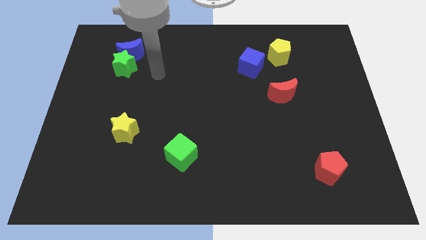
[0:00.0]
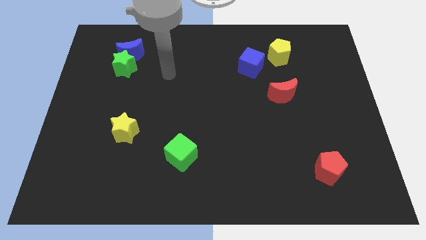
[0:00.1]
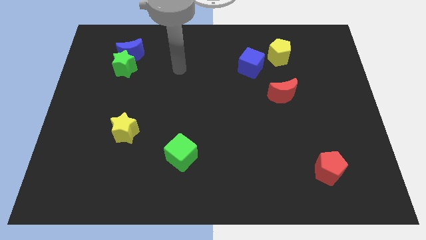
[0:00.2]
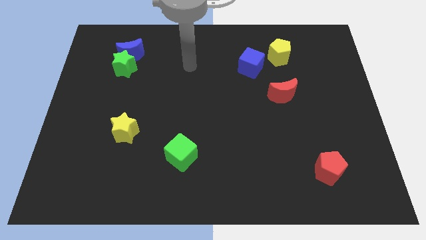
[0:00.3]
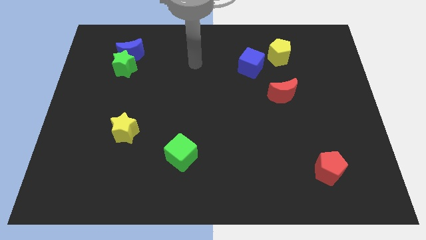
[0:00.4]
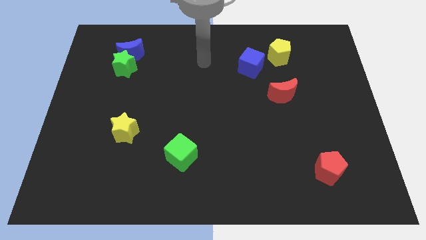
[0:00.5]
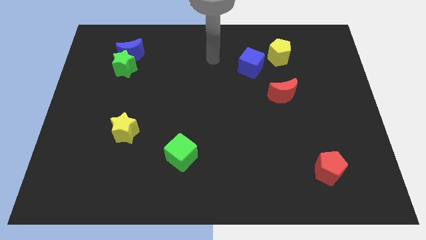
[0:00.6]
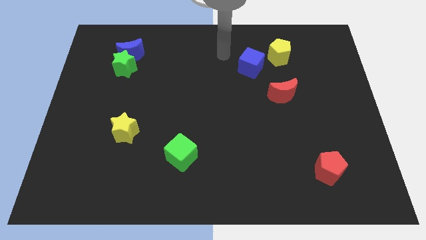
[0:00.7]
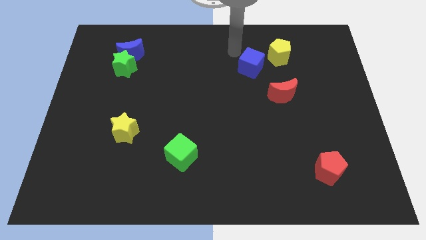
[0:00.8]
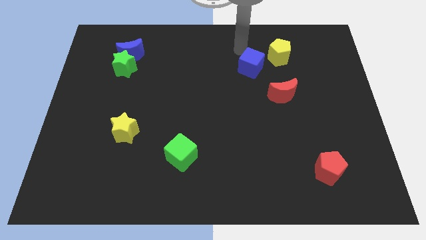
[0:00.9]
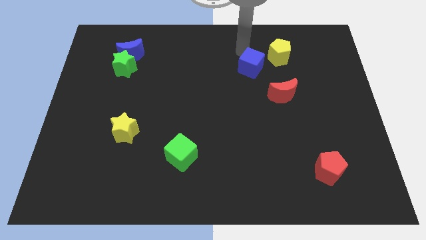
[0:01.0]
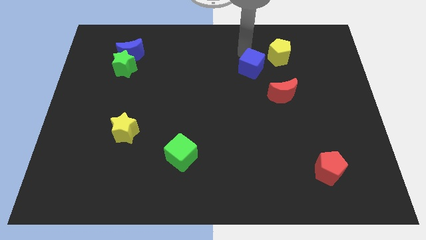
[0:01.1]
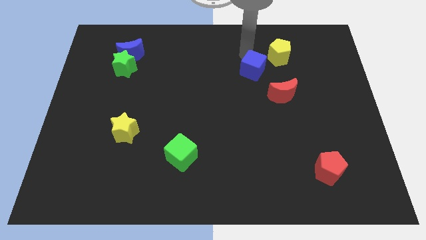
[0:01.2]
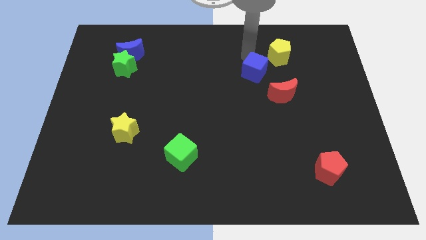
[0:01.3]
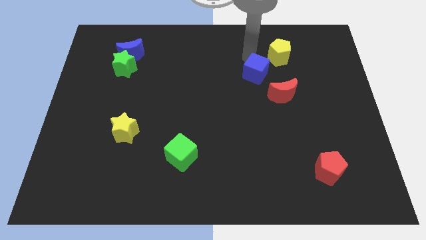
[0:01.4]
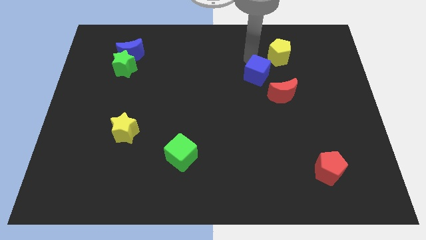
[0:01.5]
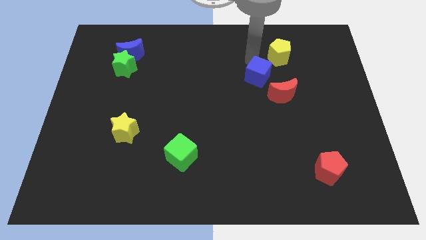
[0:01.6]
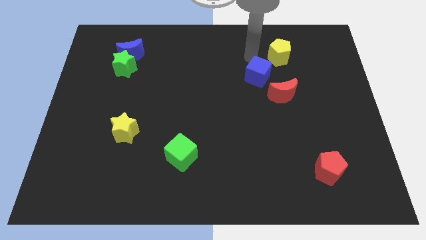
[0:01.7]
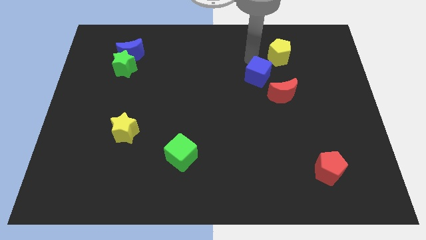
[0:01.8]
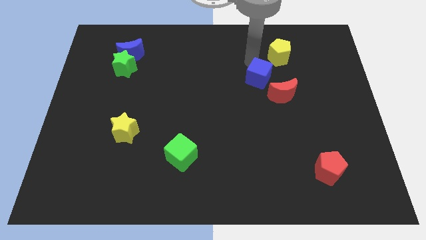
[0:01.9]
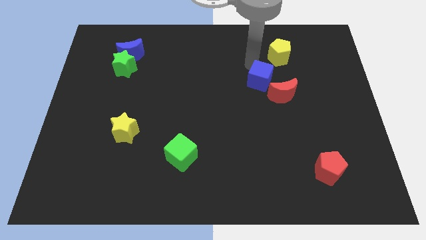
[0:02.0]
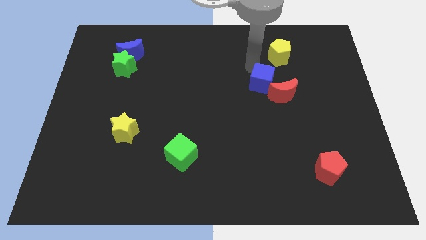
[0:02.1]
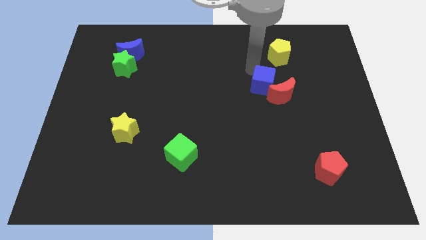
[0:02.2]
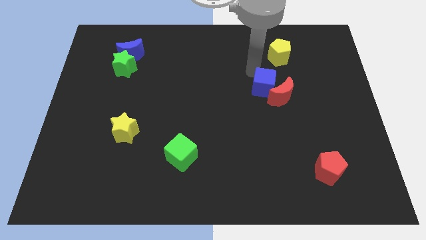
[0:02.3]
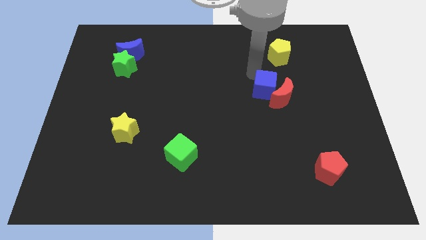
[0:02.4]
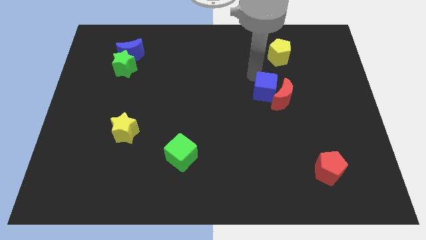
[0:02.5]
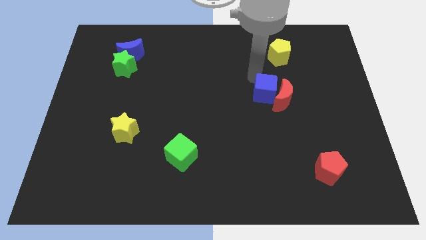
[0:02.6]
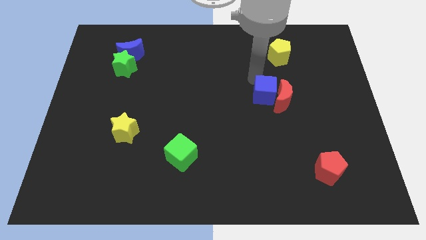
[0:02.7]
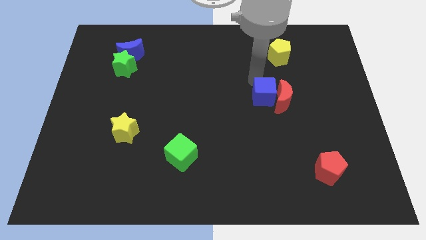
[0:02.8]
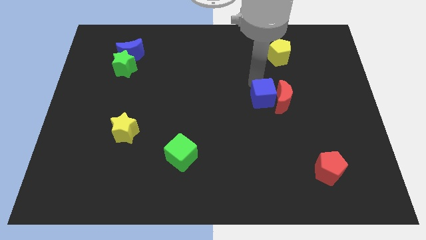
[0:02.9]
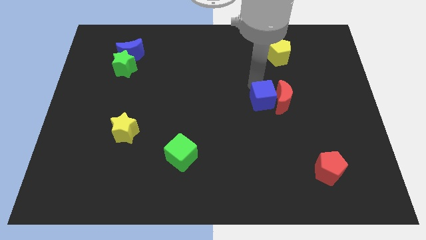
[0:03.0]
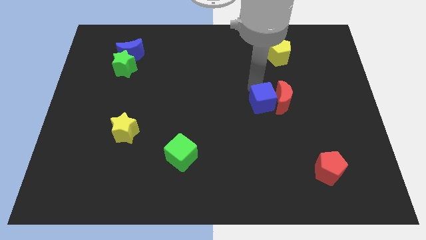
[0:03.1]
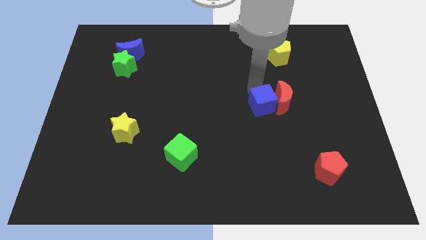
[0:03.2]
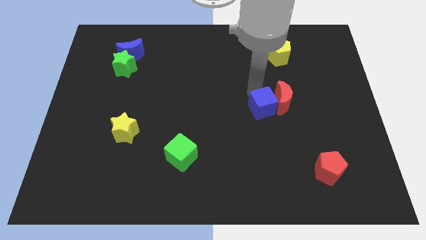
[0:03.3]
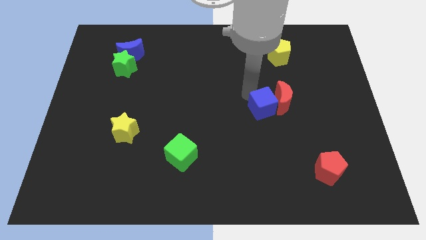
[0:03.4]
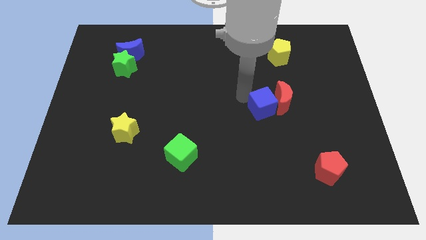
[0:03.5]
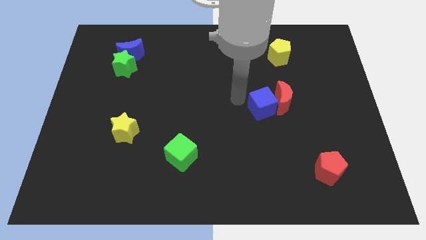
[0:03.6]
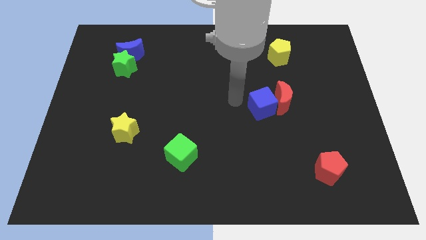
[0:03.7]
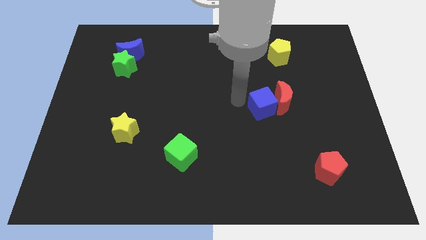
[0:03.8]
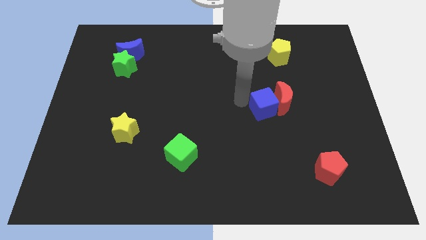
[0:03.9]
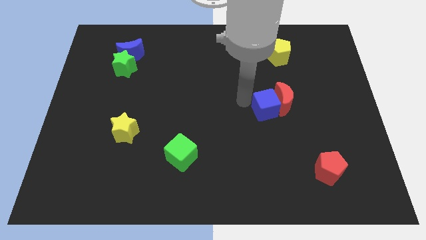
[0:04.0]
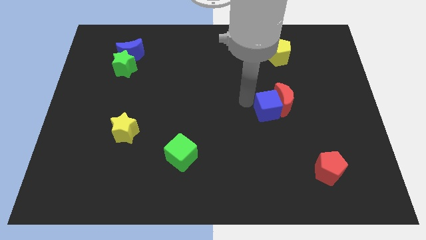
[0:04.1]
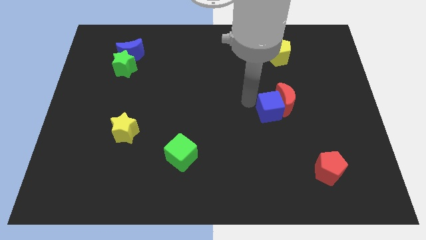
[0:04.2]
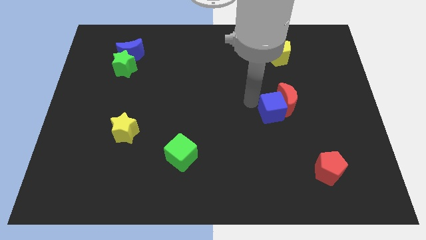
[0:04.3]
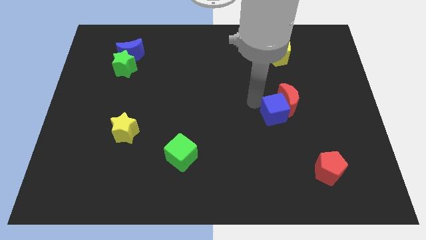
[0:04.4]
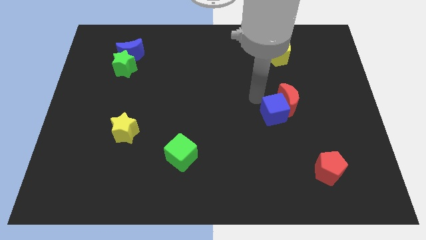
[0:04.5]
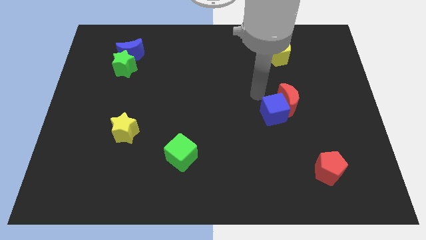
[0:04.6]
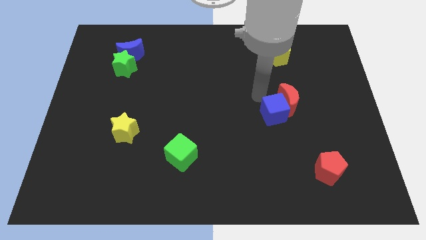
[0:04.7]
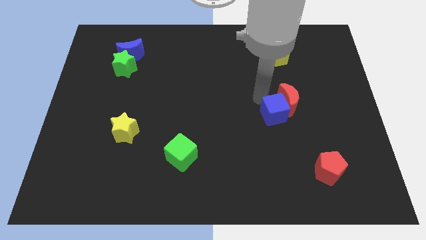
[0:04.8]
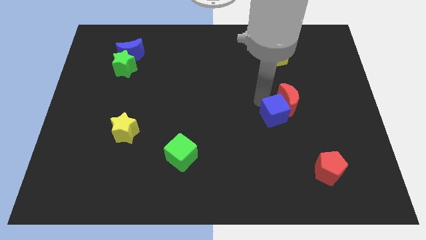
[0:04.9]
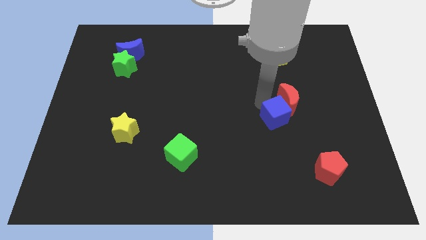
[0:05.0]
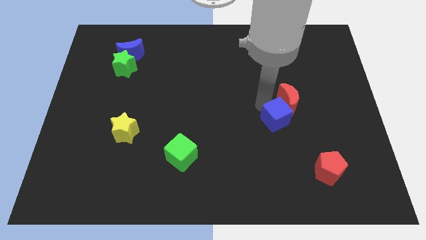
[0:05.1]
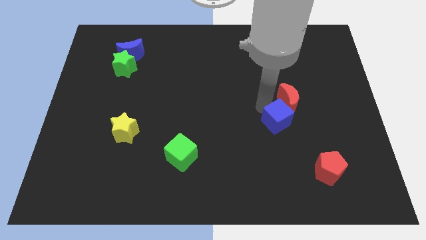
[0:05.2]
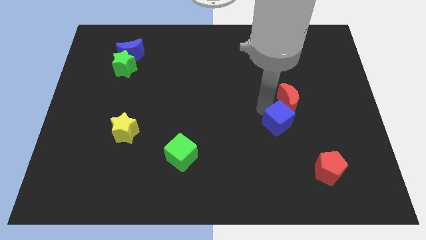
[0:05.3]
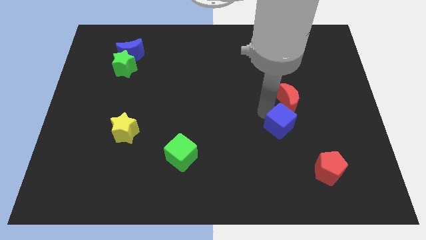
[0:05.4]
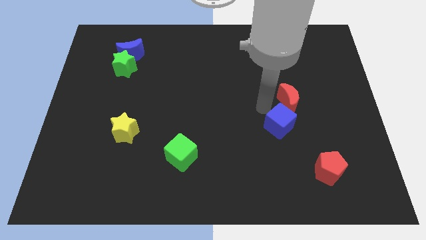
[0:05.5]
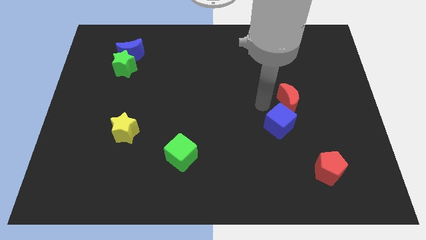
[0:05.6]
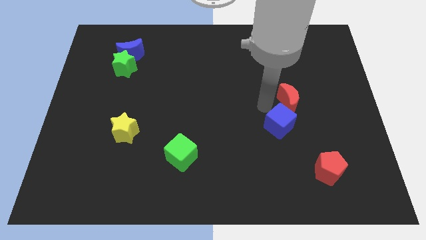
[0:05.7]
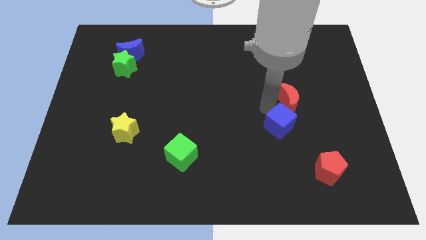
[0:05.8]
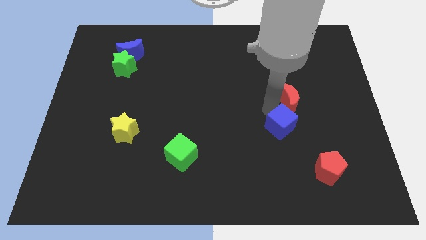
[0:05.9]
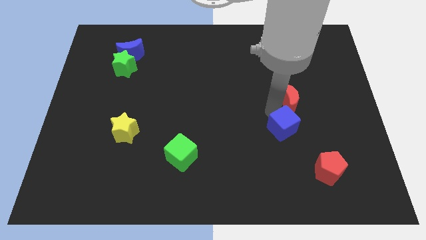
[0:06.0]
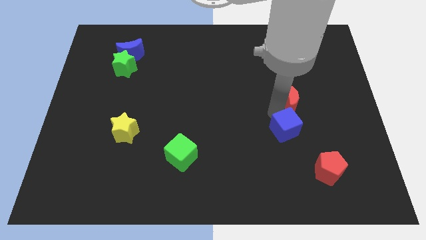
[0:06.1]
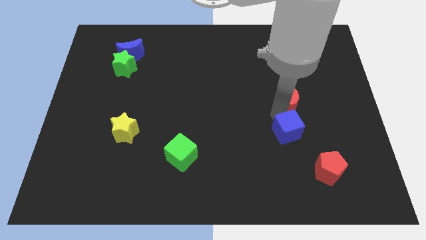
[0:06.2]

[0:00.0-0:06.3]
move the blue cube to the top left side of the red pentagon
